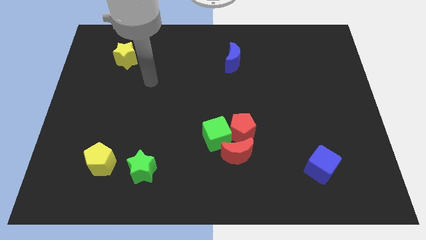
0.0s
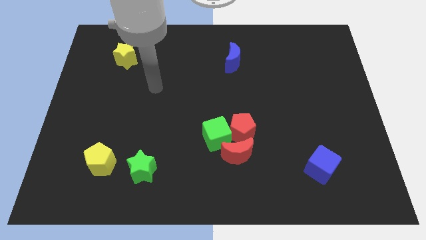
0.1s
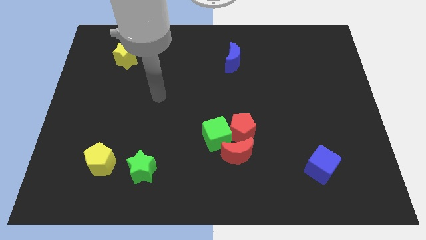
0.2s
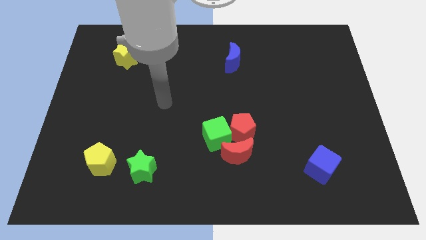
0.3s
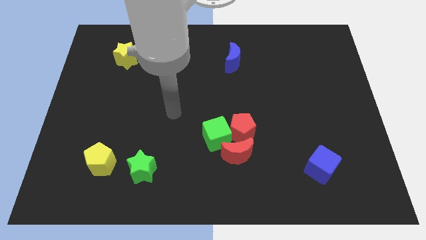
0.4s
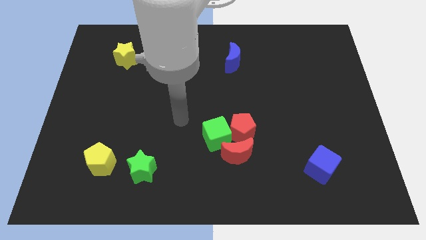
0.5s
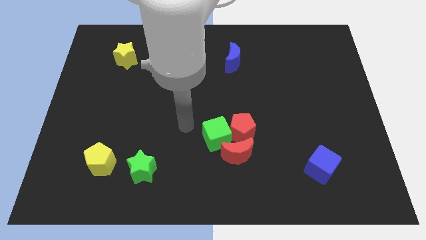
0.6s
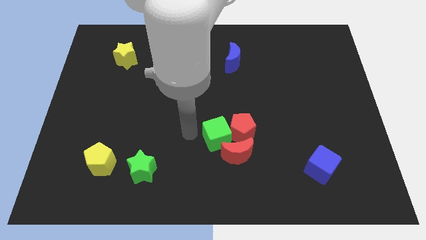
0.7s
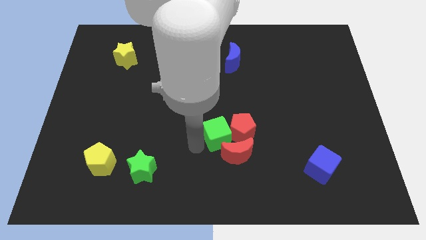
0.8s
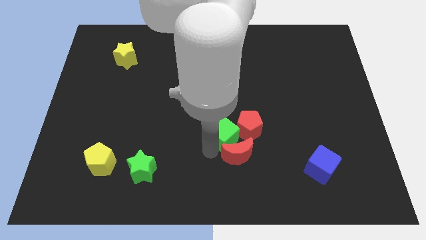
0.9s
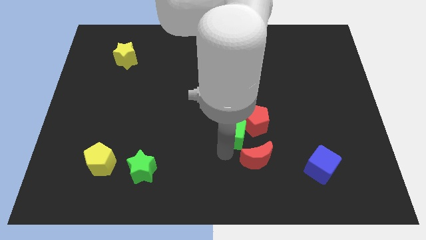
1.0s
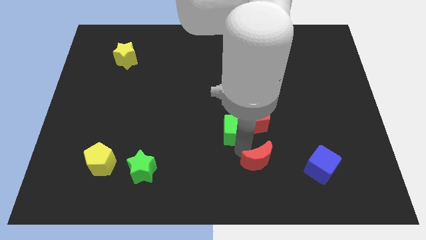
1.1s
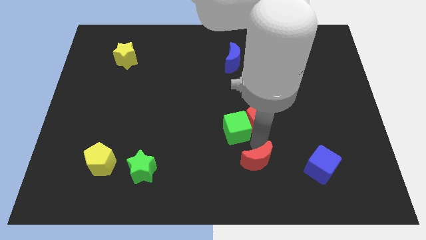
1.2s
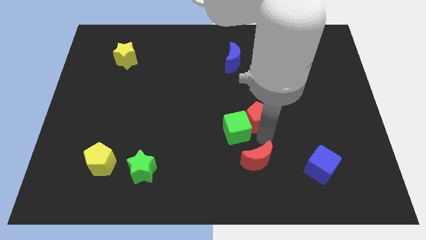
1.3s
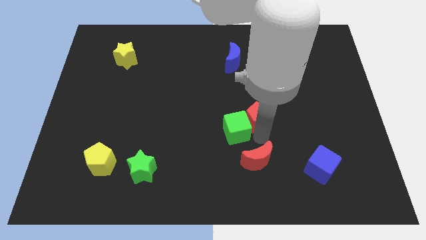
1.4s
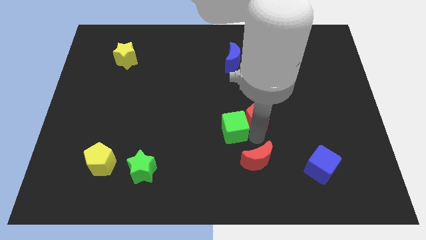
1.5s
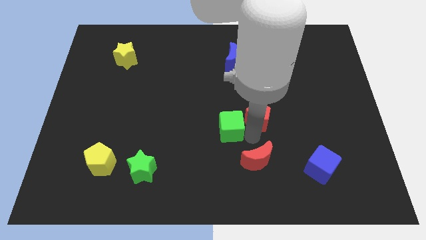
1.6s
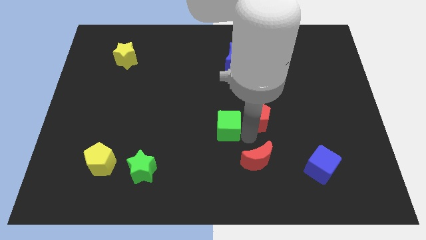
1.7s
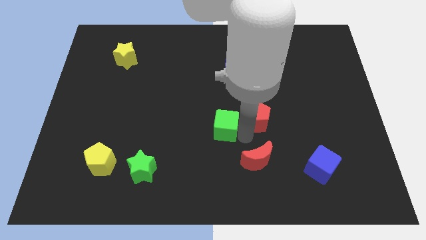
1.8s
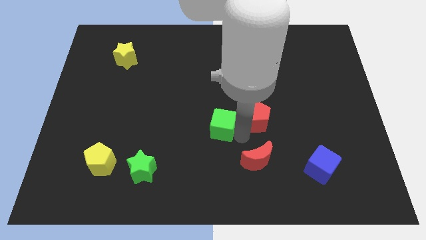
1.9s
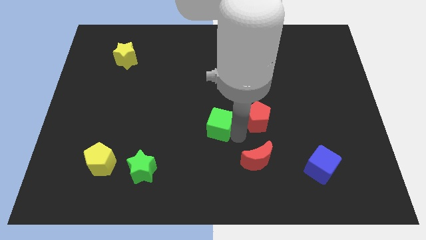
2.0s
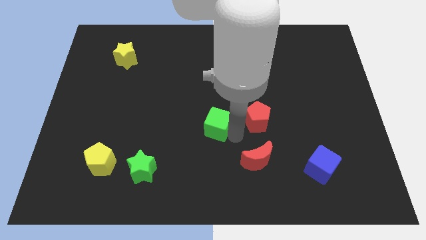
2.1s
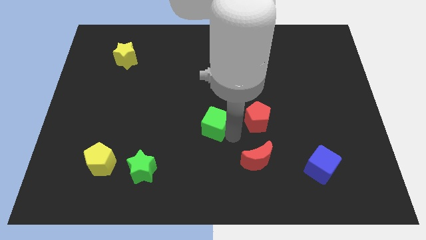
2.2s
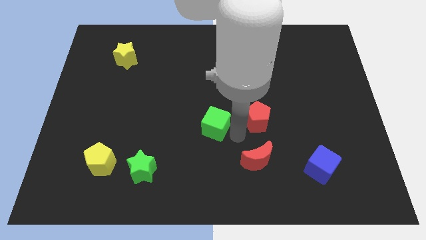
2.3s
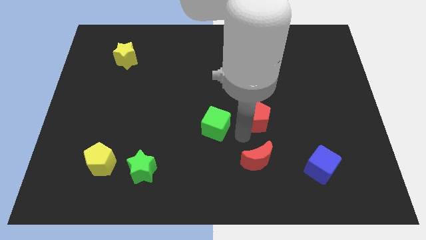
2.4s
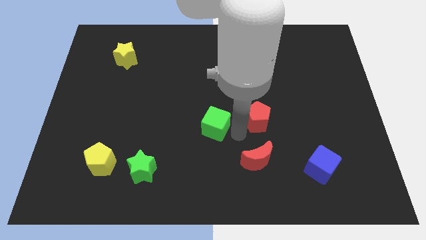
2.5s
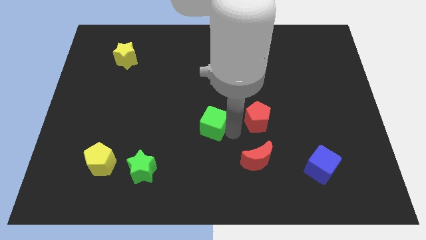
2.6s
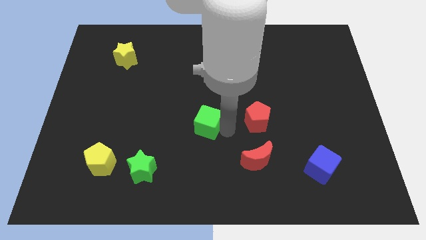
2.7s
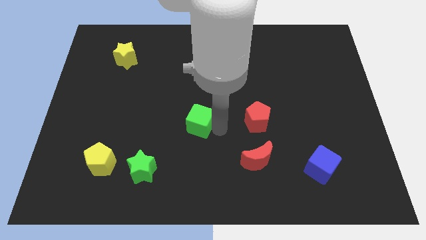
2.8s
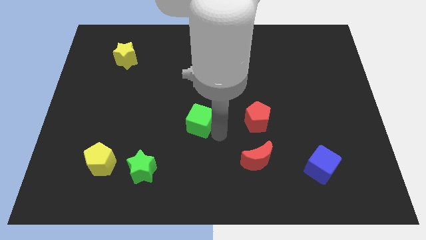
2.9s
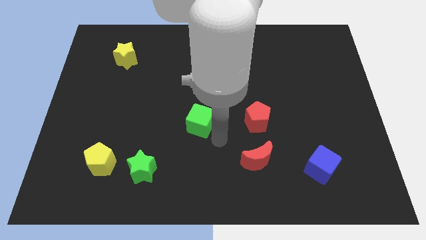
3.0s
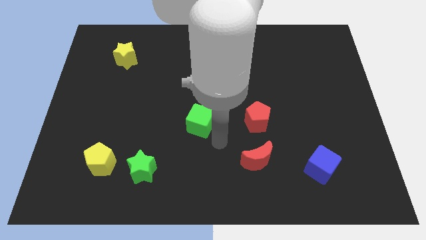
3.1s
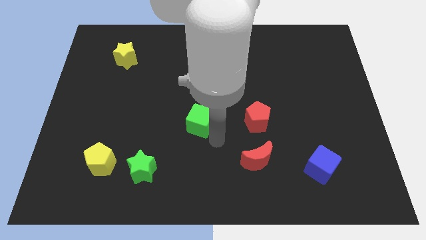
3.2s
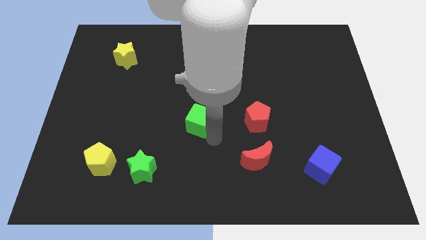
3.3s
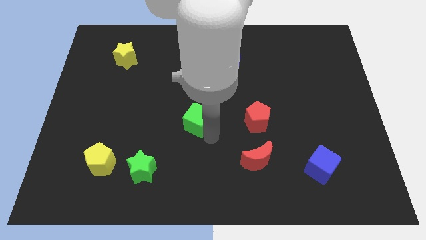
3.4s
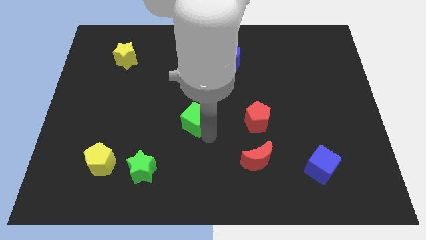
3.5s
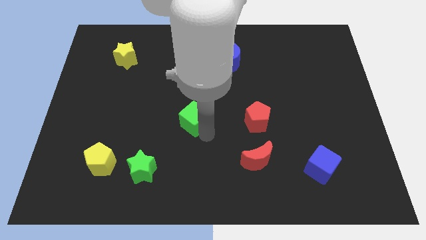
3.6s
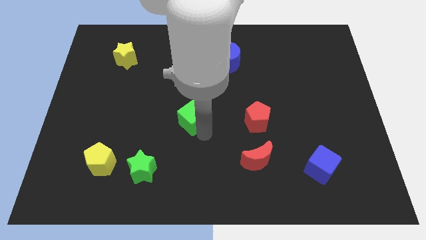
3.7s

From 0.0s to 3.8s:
slightly move the green cube up and left diagonally

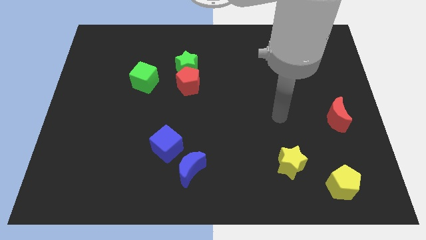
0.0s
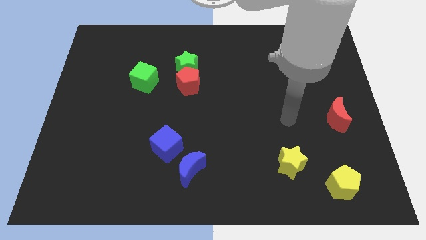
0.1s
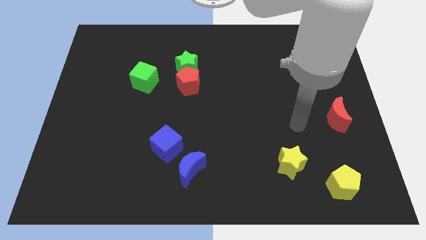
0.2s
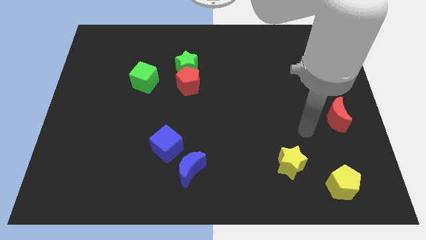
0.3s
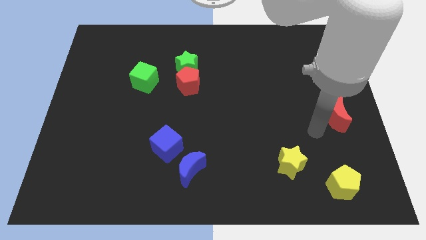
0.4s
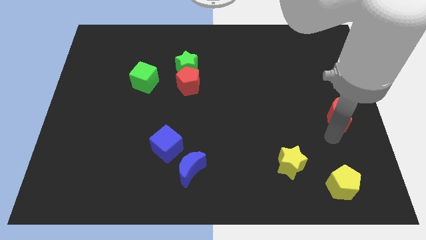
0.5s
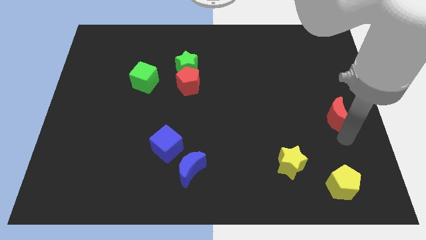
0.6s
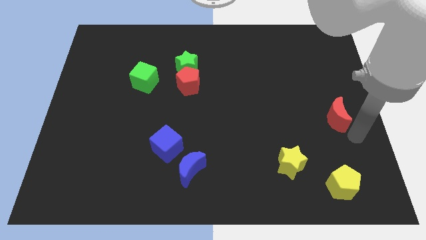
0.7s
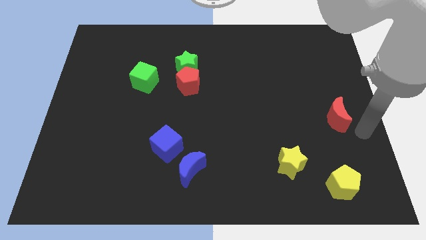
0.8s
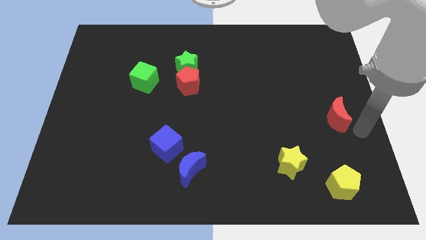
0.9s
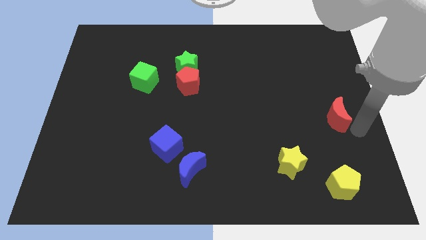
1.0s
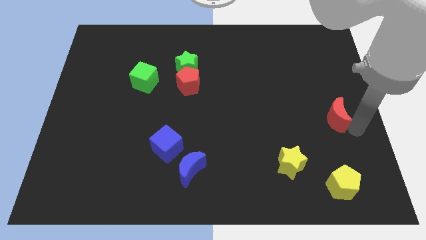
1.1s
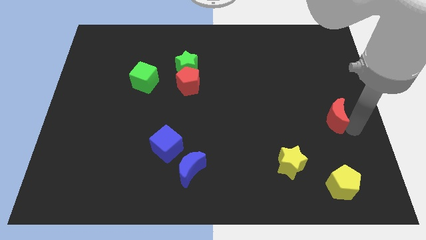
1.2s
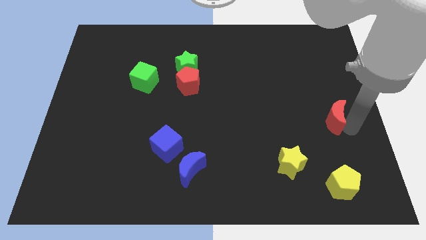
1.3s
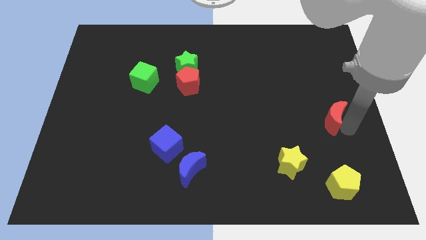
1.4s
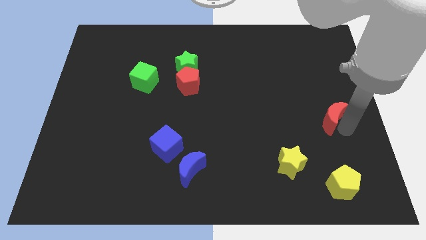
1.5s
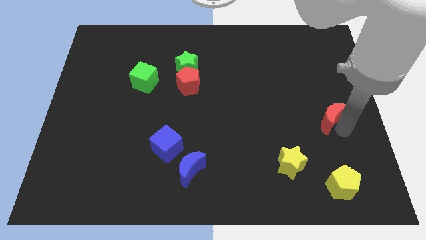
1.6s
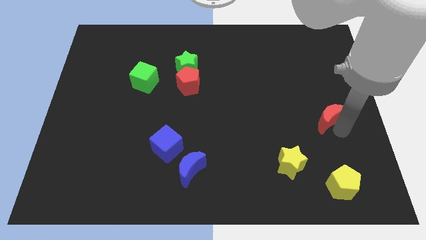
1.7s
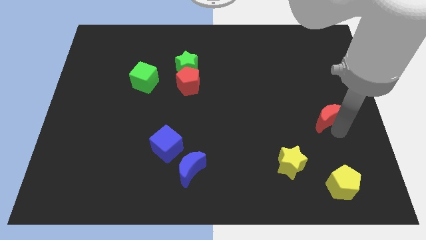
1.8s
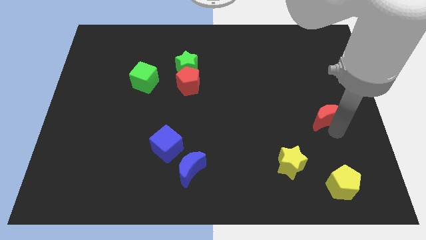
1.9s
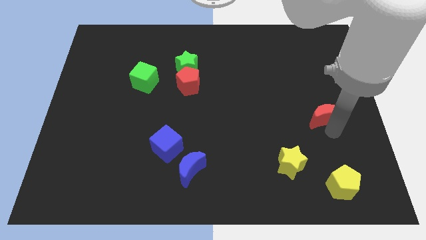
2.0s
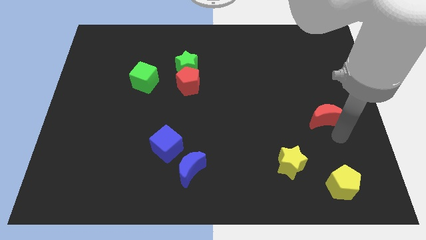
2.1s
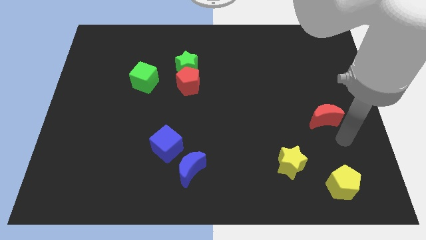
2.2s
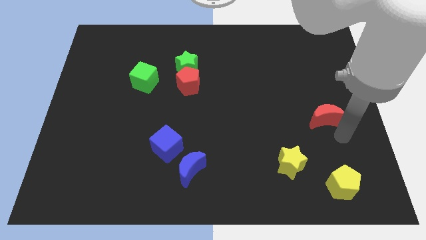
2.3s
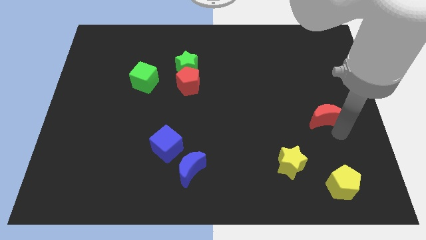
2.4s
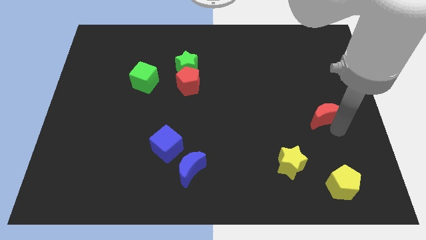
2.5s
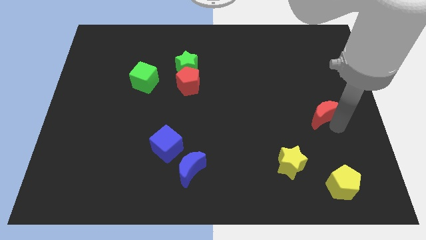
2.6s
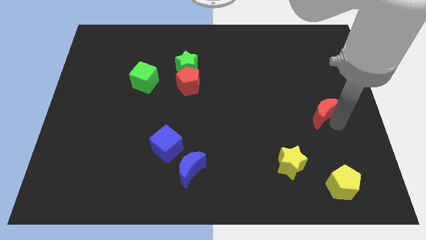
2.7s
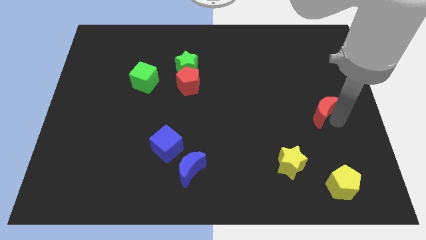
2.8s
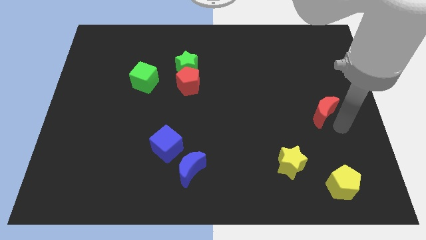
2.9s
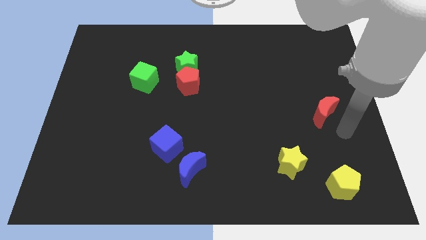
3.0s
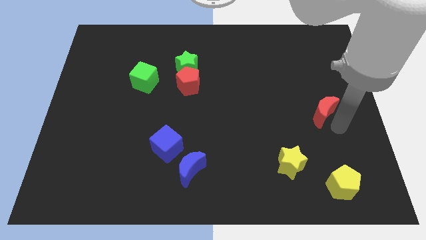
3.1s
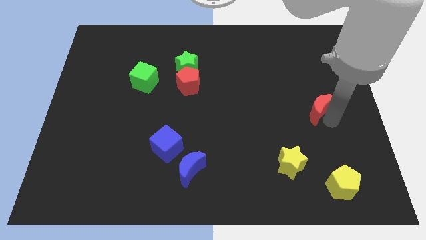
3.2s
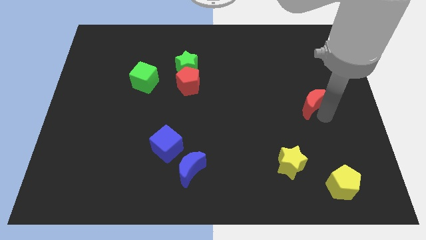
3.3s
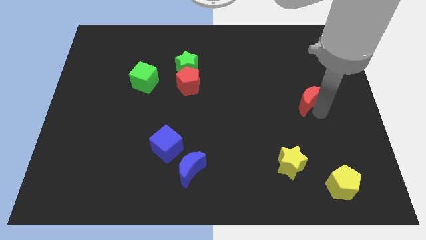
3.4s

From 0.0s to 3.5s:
slide the red moon up and then to the left slightly

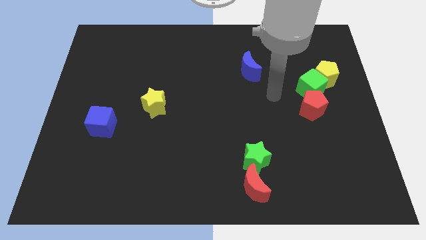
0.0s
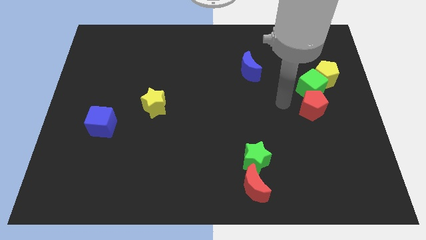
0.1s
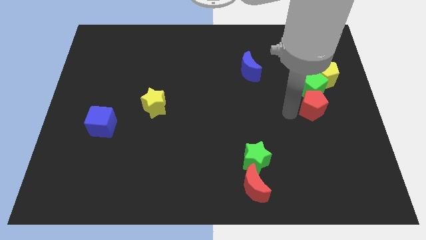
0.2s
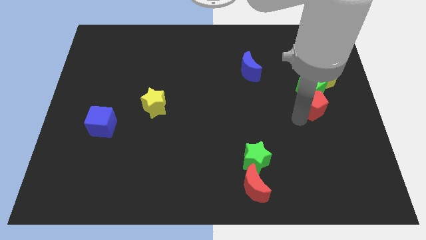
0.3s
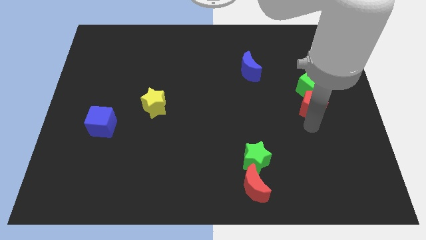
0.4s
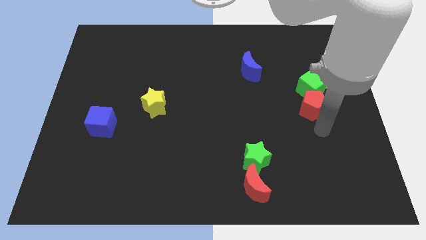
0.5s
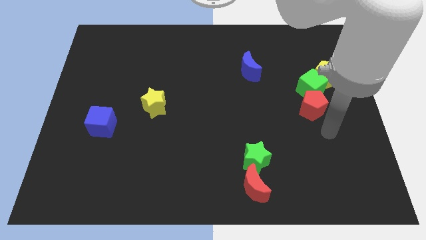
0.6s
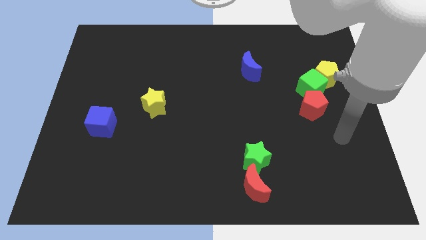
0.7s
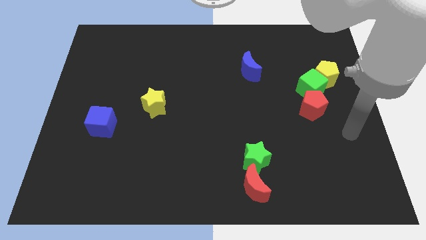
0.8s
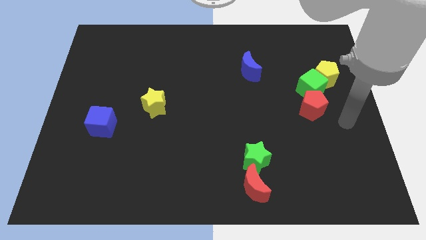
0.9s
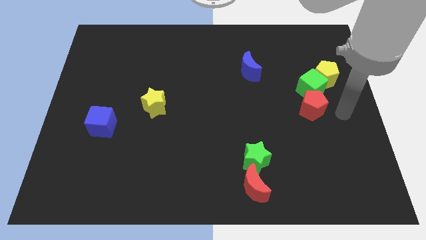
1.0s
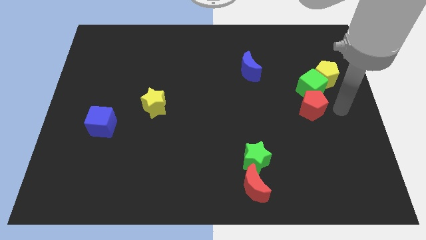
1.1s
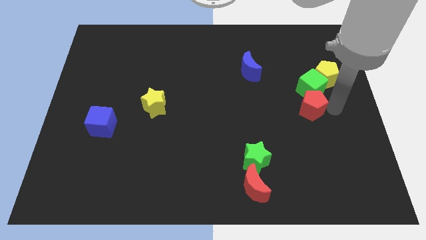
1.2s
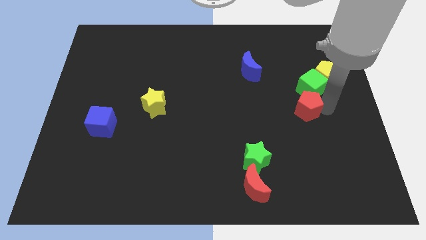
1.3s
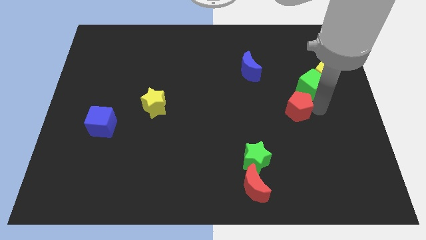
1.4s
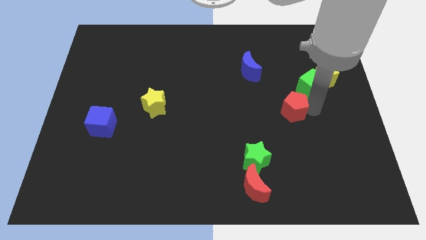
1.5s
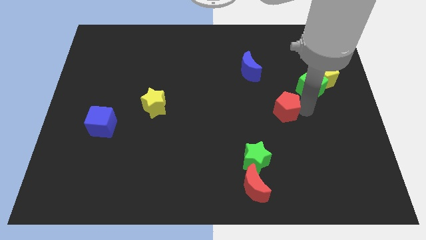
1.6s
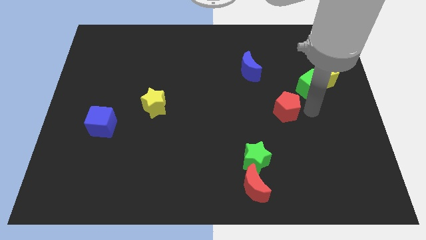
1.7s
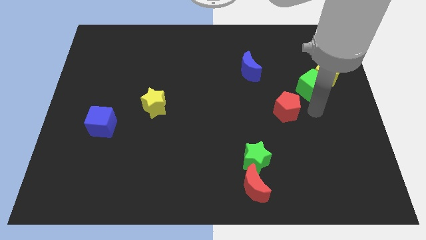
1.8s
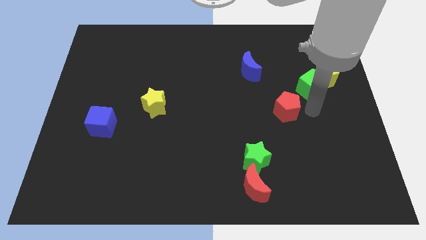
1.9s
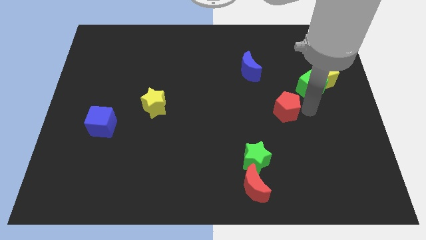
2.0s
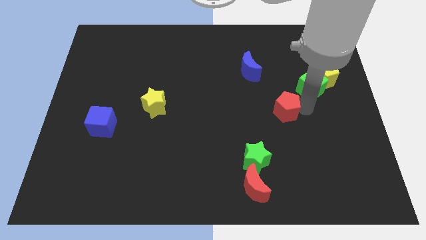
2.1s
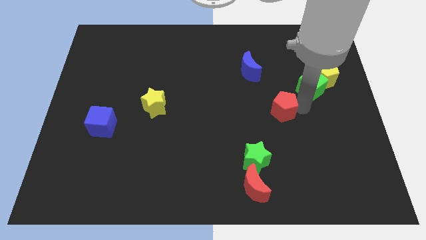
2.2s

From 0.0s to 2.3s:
move the red pentagon left somewhat
